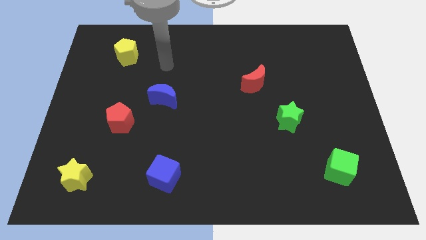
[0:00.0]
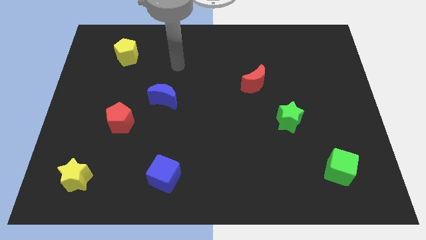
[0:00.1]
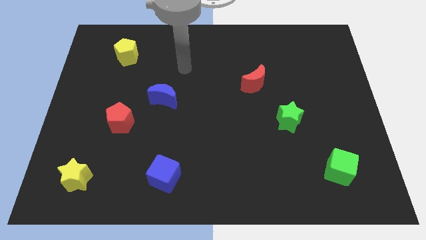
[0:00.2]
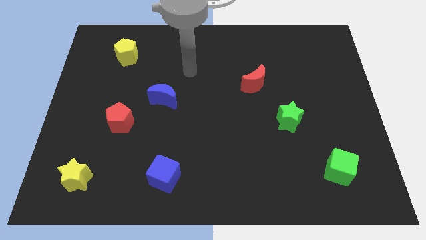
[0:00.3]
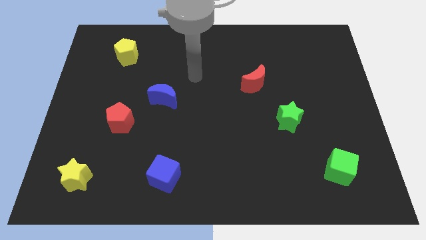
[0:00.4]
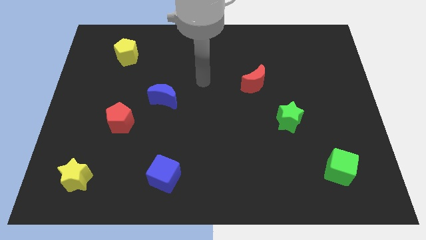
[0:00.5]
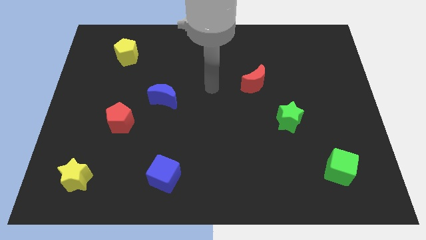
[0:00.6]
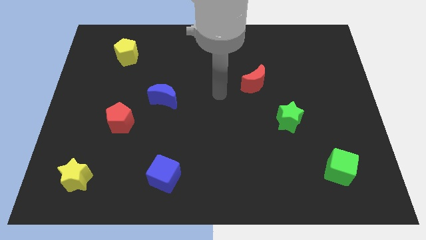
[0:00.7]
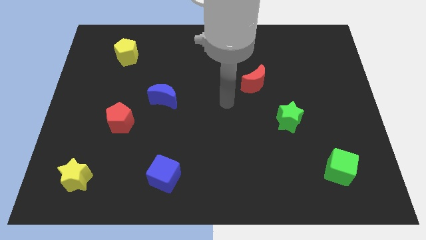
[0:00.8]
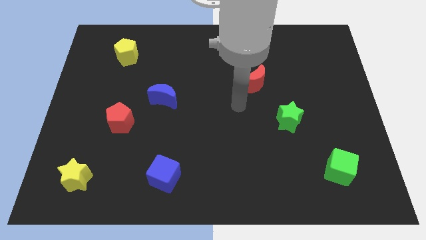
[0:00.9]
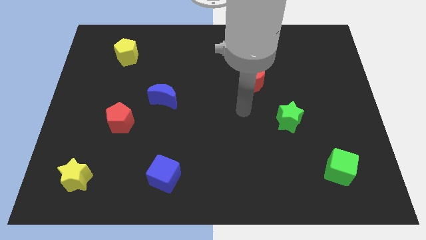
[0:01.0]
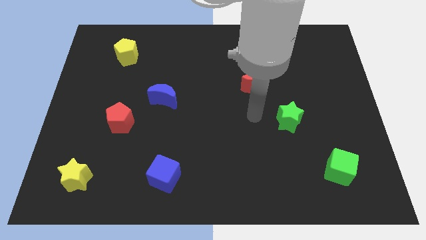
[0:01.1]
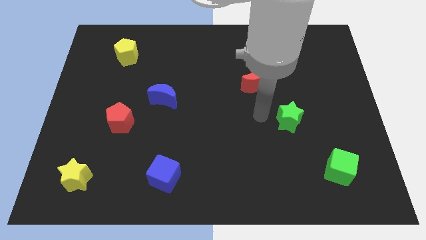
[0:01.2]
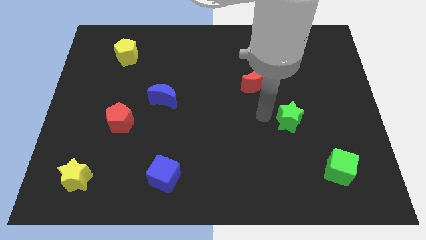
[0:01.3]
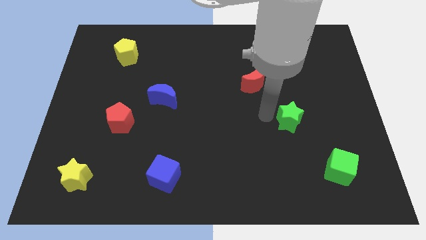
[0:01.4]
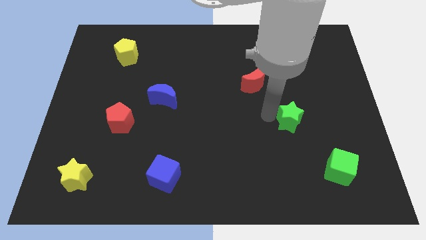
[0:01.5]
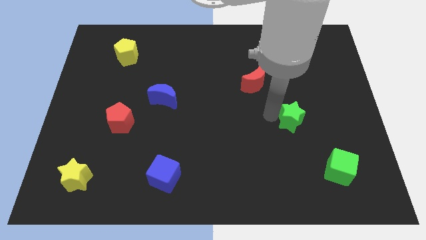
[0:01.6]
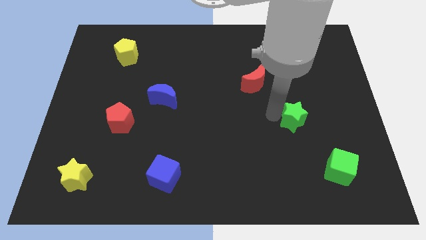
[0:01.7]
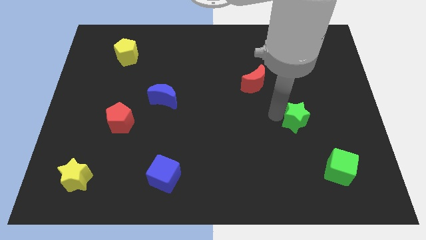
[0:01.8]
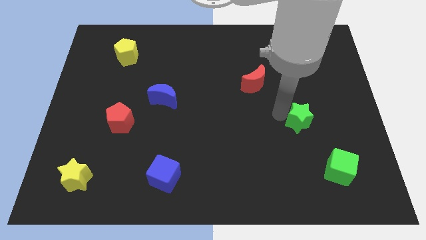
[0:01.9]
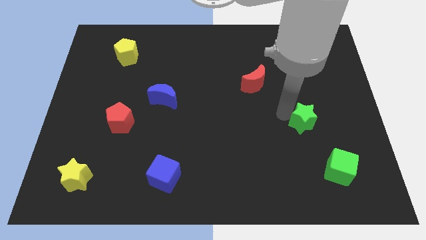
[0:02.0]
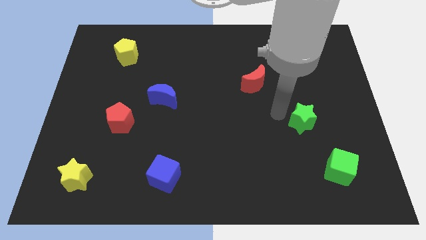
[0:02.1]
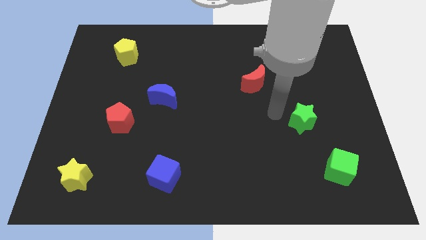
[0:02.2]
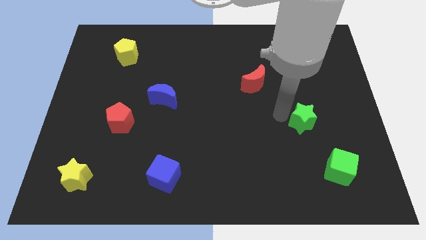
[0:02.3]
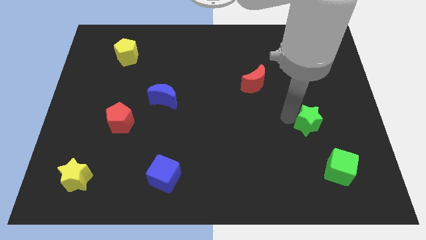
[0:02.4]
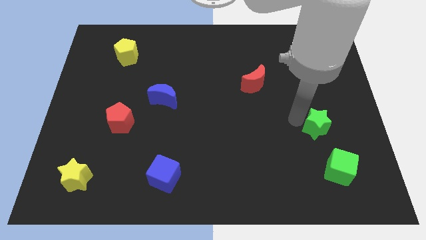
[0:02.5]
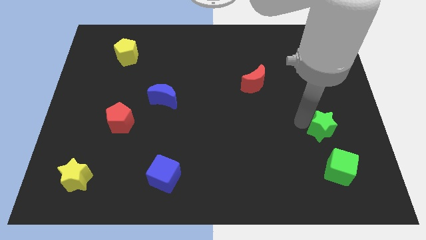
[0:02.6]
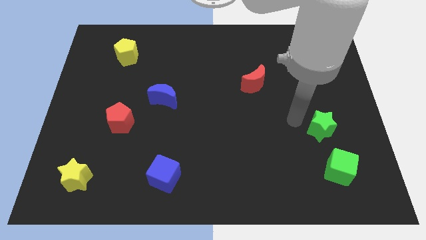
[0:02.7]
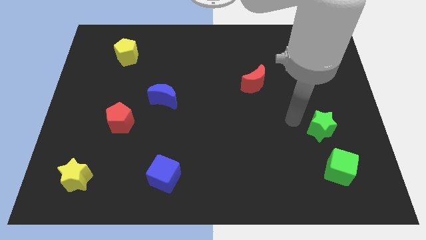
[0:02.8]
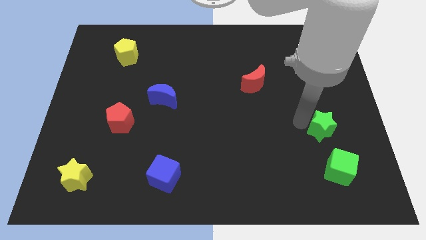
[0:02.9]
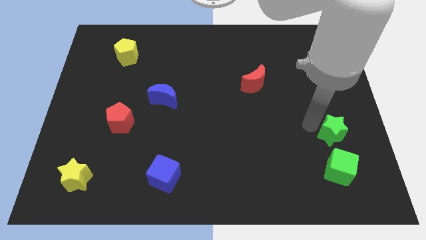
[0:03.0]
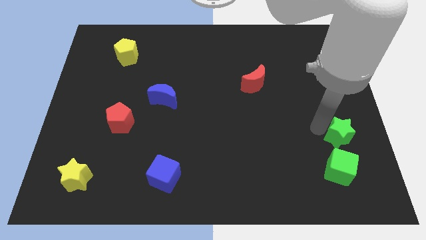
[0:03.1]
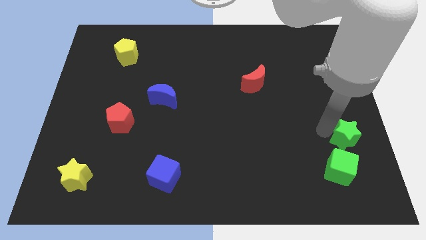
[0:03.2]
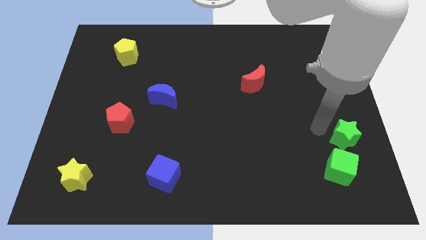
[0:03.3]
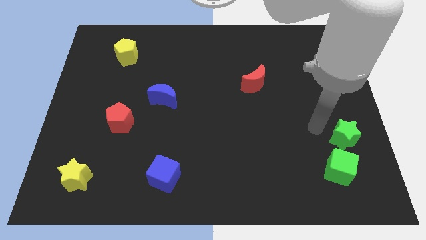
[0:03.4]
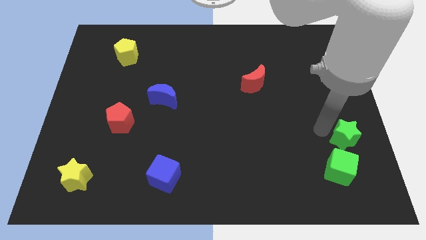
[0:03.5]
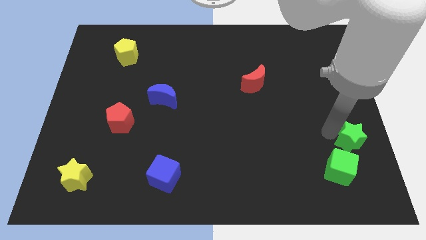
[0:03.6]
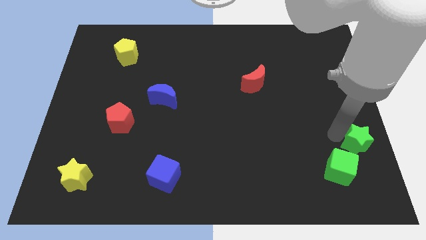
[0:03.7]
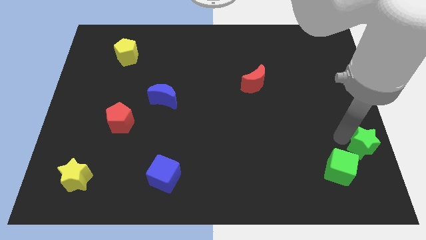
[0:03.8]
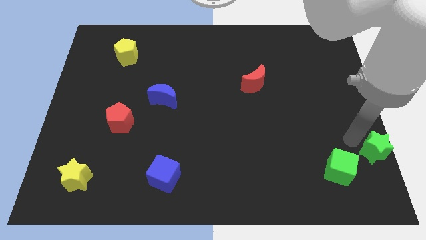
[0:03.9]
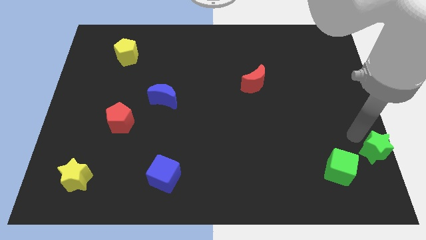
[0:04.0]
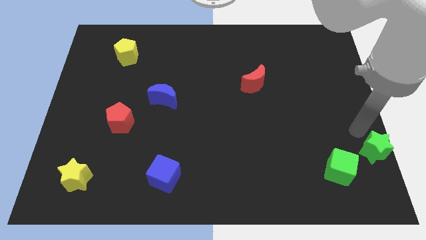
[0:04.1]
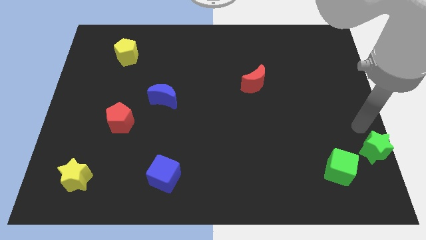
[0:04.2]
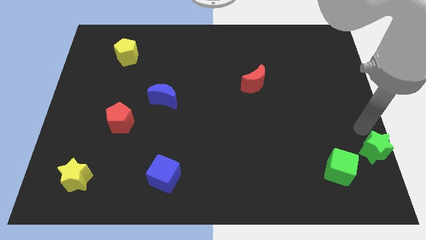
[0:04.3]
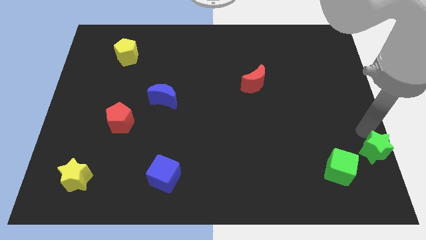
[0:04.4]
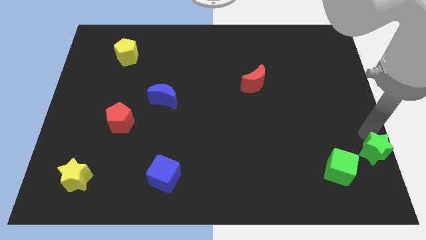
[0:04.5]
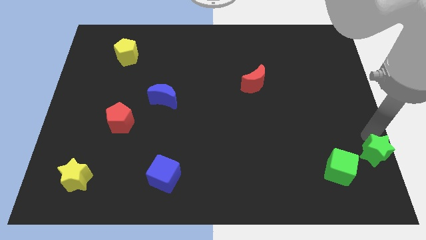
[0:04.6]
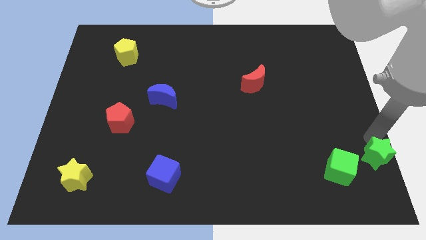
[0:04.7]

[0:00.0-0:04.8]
slide the green star to the bottom right corner

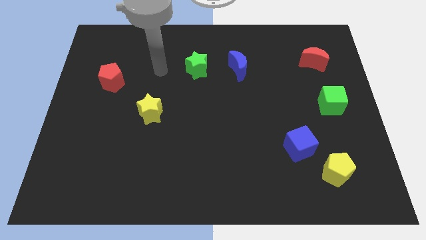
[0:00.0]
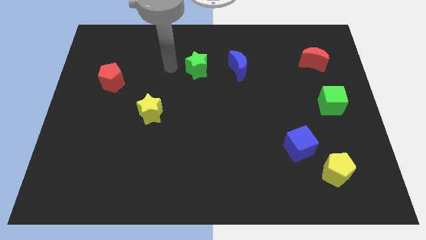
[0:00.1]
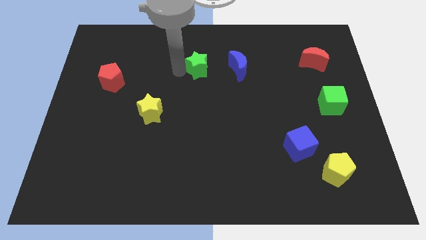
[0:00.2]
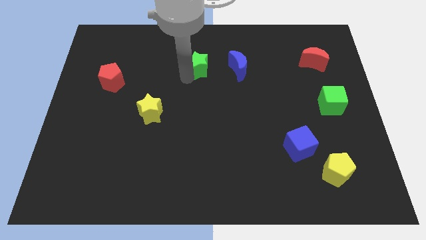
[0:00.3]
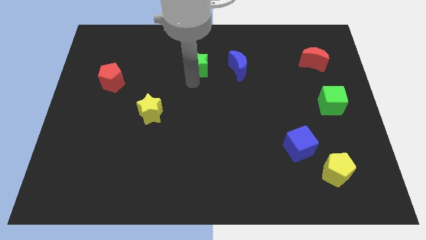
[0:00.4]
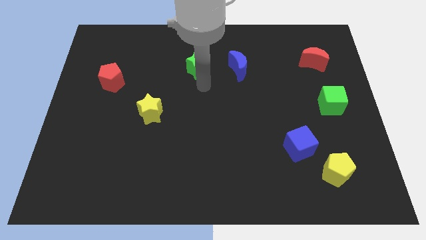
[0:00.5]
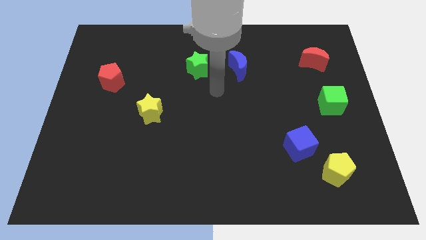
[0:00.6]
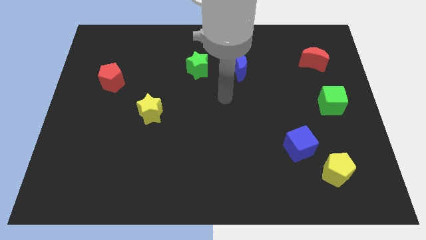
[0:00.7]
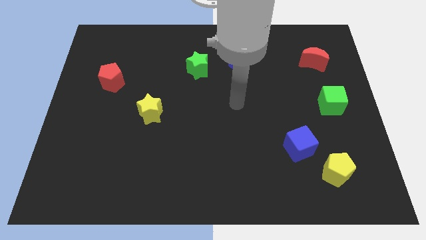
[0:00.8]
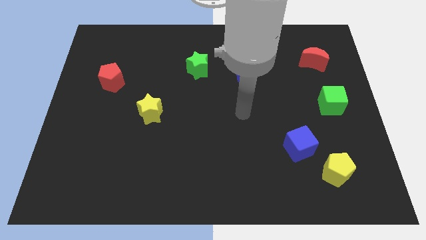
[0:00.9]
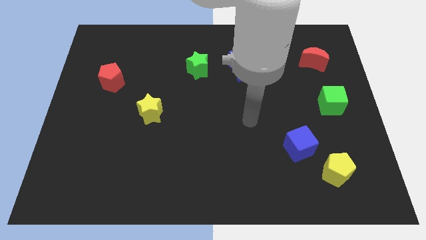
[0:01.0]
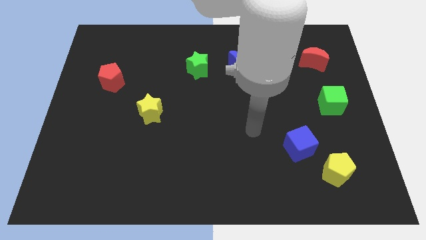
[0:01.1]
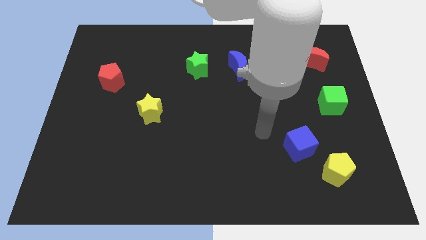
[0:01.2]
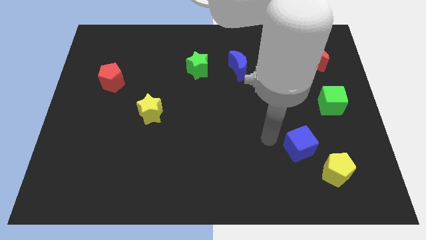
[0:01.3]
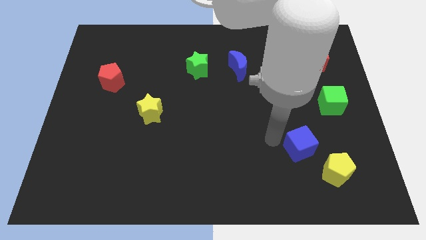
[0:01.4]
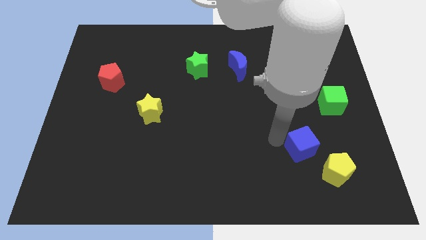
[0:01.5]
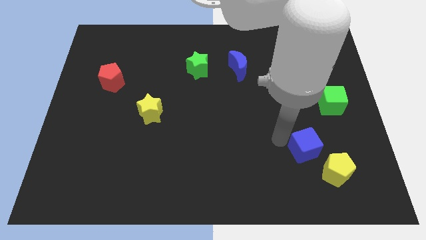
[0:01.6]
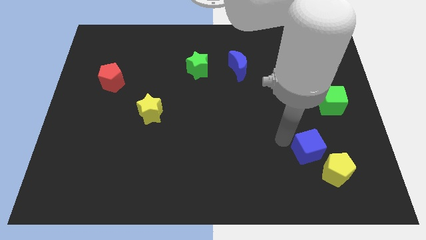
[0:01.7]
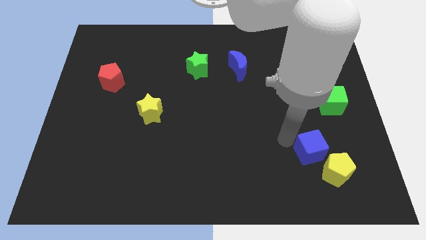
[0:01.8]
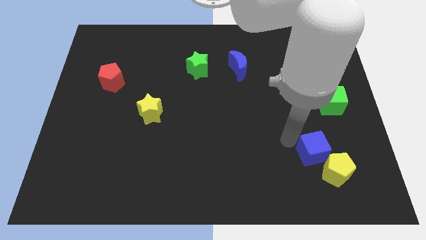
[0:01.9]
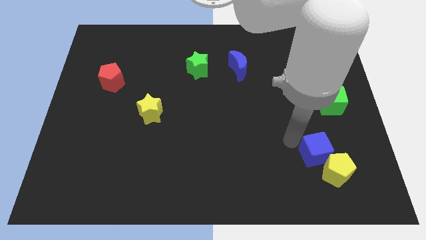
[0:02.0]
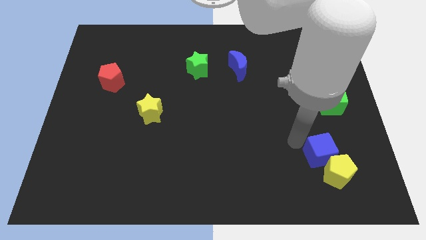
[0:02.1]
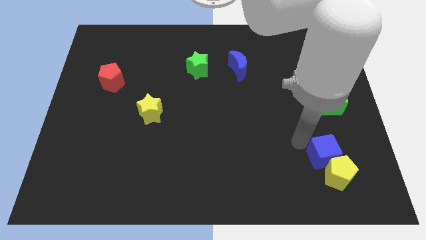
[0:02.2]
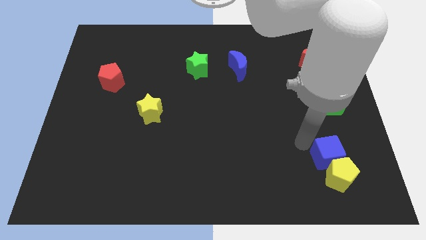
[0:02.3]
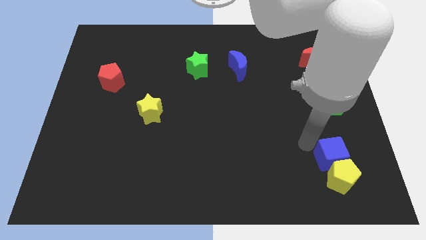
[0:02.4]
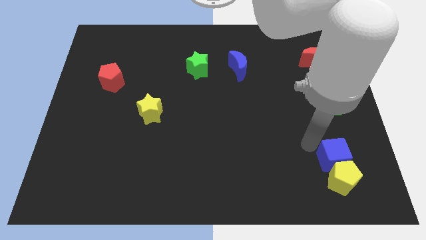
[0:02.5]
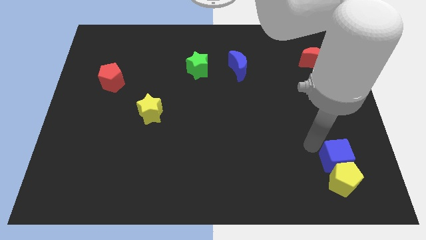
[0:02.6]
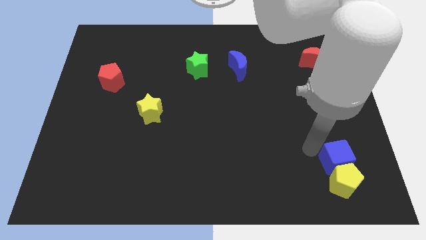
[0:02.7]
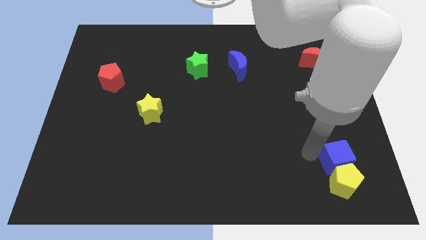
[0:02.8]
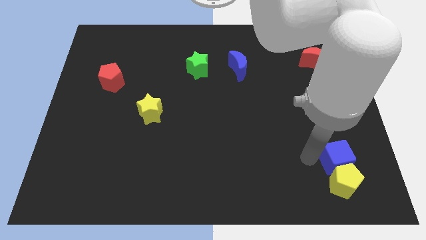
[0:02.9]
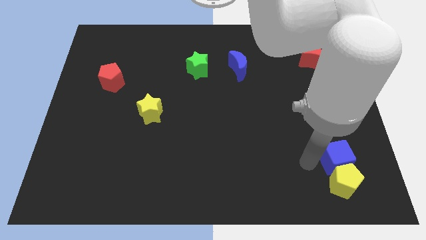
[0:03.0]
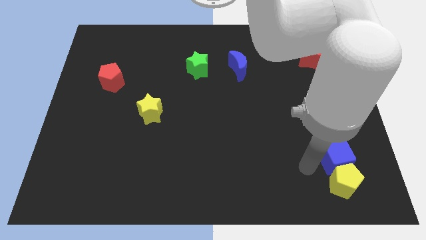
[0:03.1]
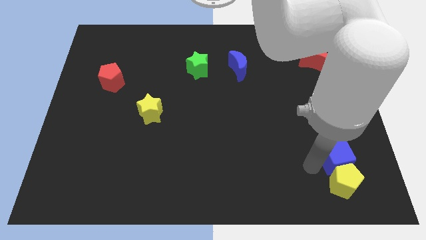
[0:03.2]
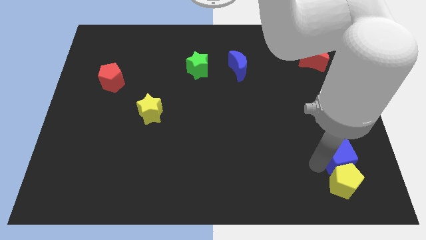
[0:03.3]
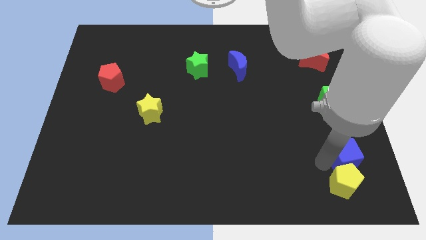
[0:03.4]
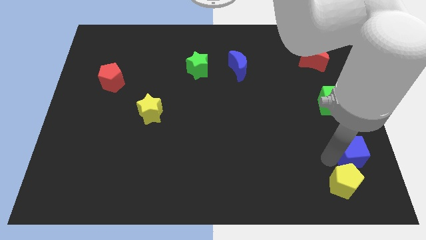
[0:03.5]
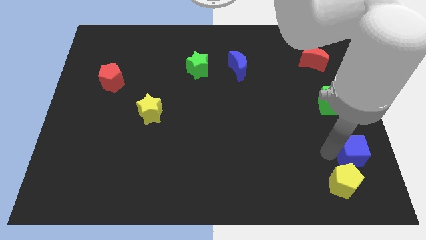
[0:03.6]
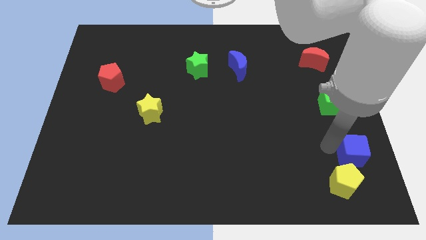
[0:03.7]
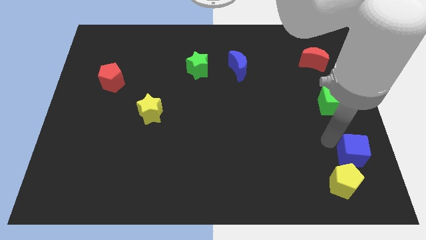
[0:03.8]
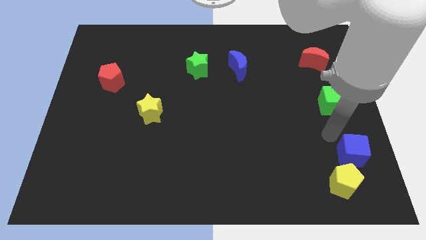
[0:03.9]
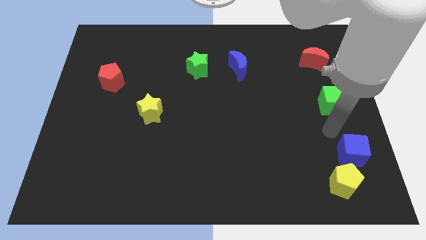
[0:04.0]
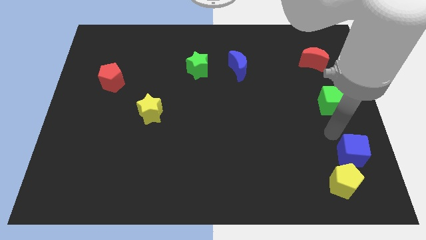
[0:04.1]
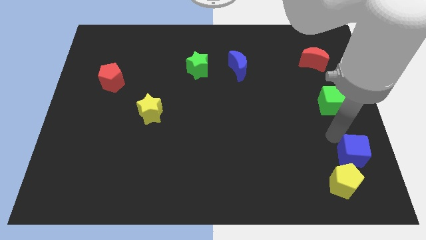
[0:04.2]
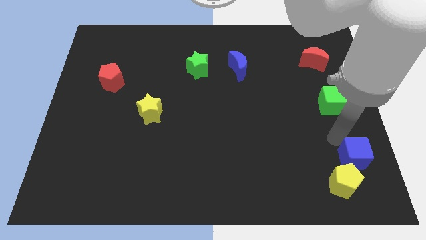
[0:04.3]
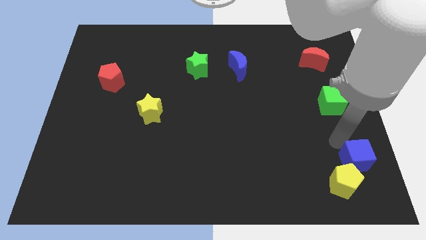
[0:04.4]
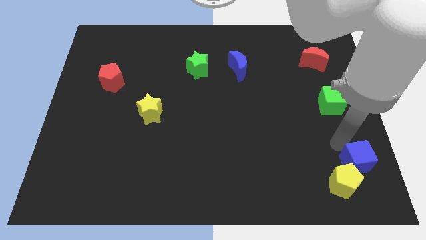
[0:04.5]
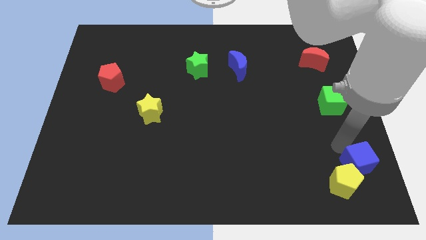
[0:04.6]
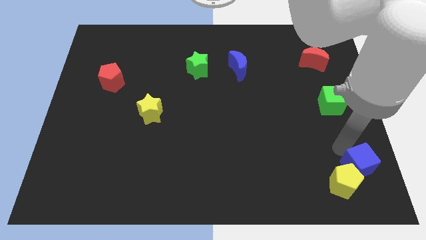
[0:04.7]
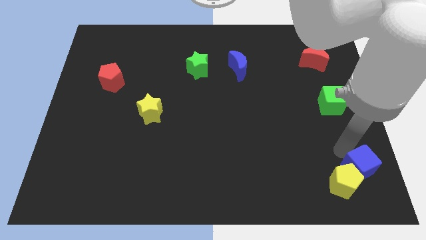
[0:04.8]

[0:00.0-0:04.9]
move the blue cube to the bottom right of the board
